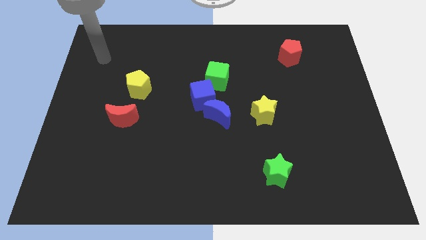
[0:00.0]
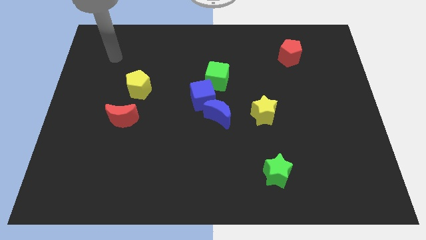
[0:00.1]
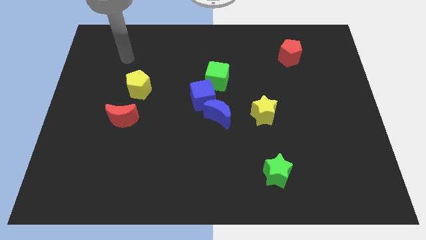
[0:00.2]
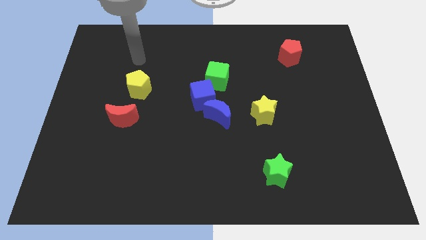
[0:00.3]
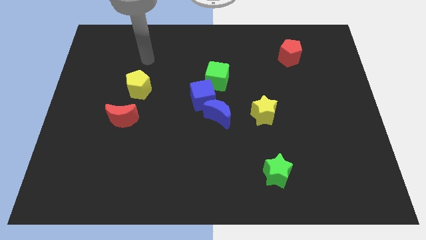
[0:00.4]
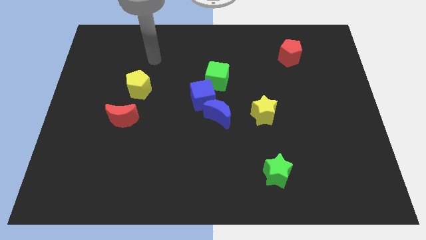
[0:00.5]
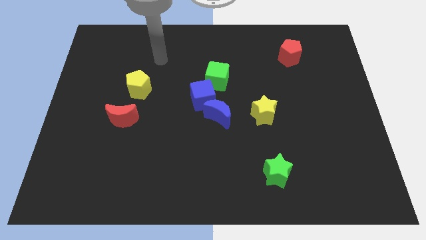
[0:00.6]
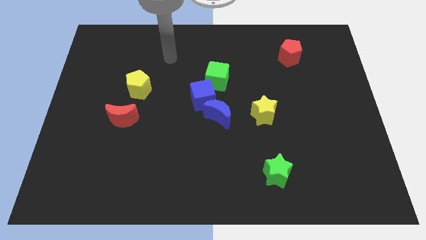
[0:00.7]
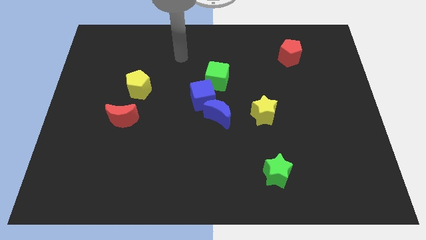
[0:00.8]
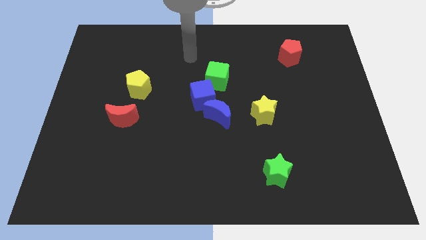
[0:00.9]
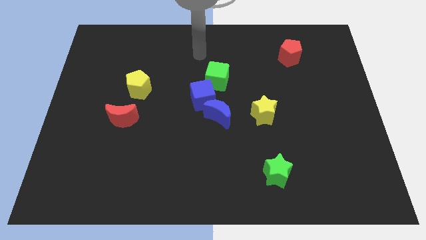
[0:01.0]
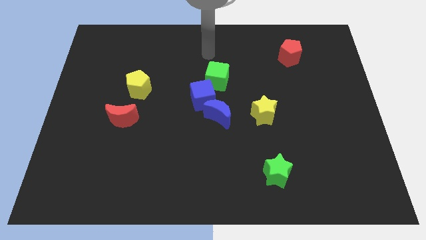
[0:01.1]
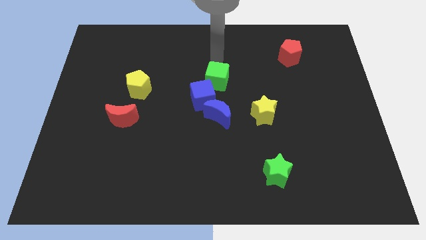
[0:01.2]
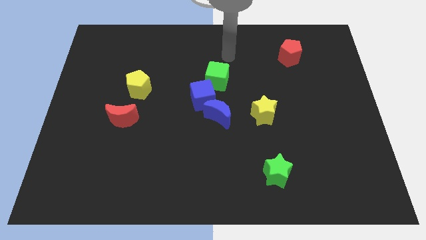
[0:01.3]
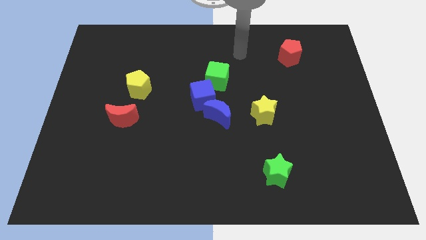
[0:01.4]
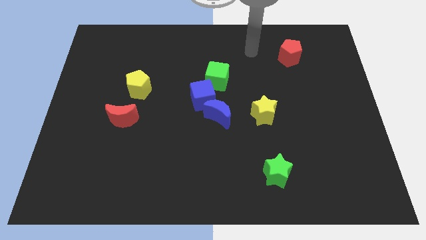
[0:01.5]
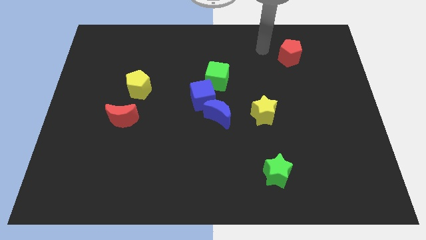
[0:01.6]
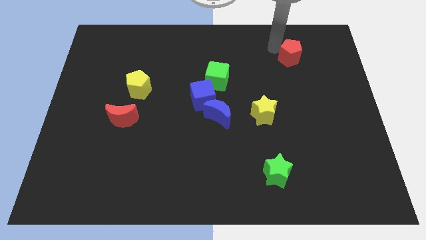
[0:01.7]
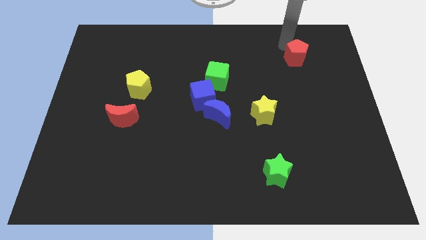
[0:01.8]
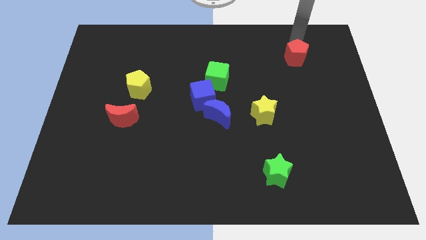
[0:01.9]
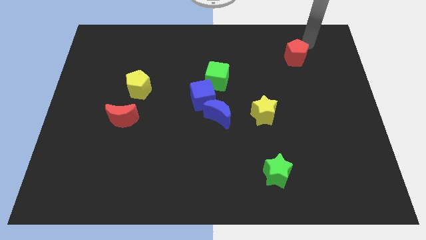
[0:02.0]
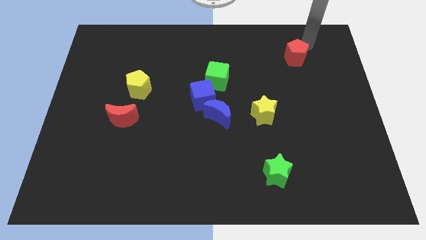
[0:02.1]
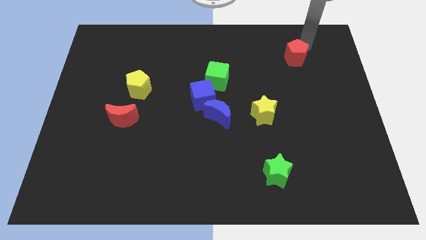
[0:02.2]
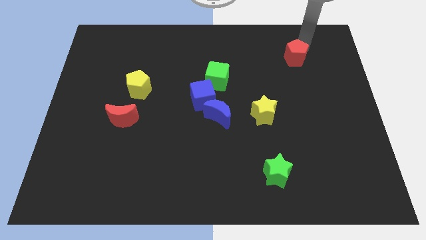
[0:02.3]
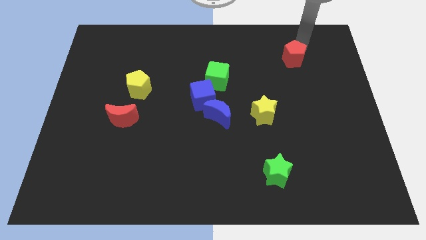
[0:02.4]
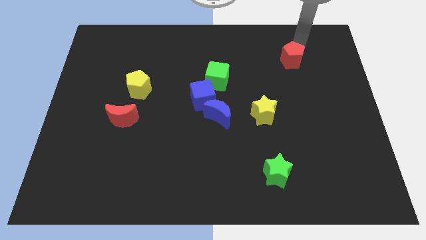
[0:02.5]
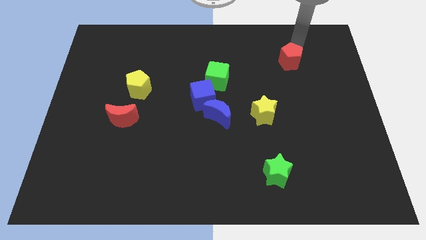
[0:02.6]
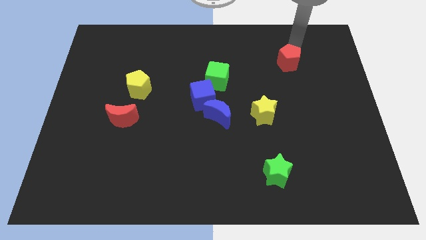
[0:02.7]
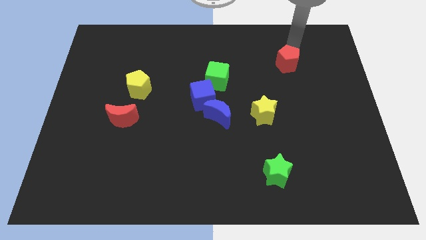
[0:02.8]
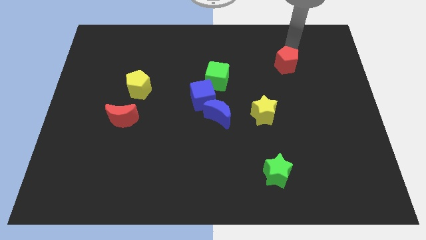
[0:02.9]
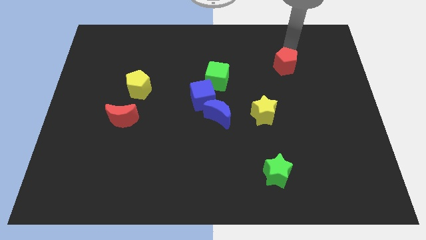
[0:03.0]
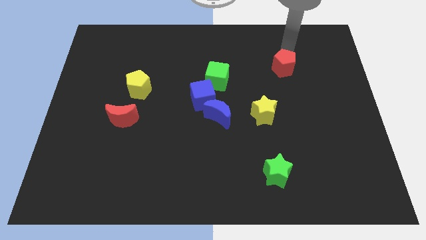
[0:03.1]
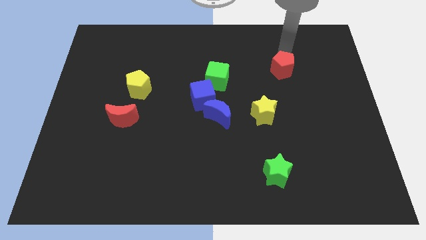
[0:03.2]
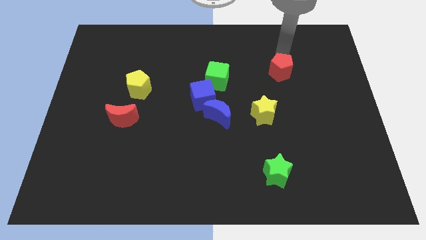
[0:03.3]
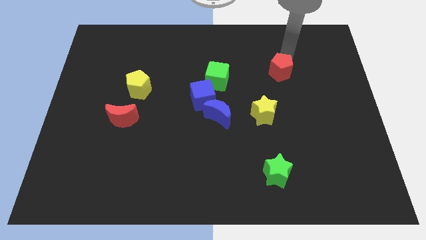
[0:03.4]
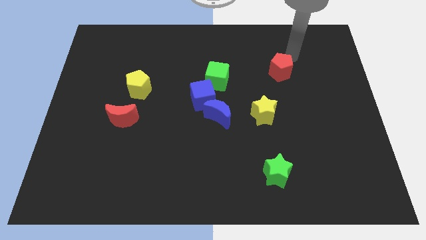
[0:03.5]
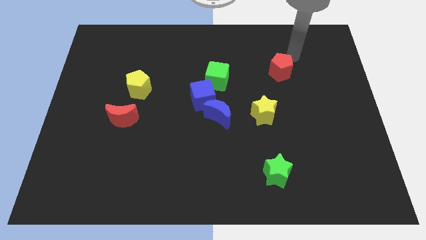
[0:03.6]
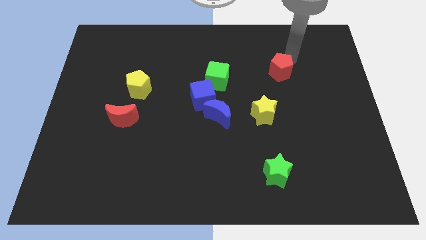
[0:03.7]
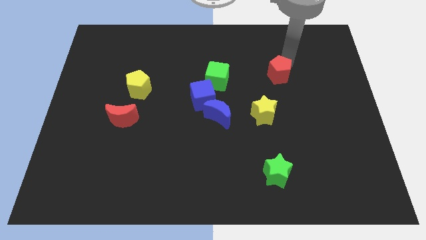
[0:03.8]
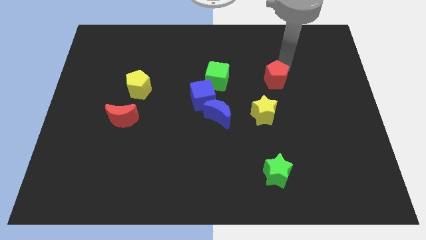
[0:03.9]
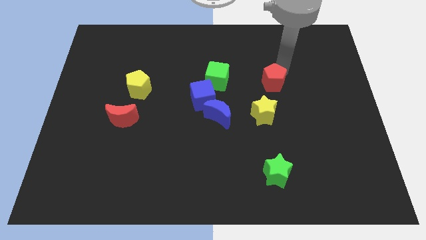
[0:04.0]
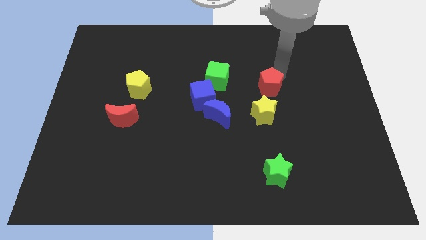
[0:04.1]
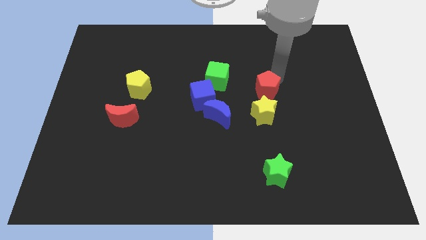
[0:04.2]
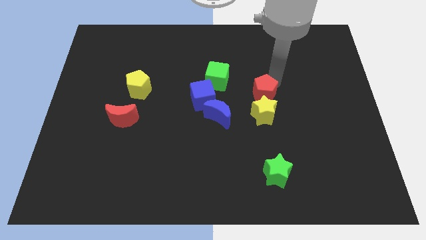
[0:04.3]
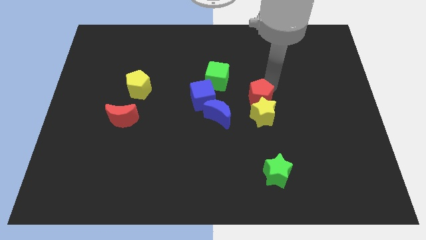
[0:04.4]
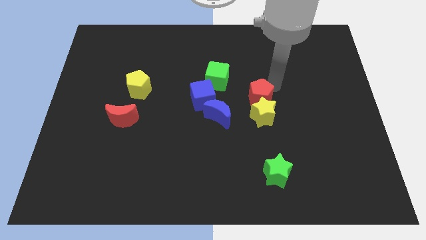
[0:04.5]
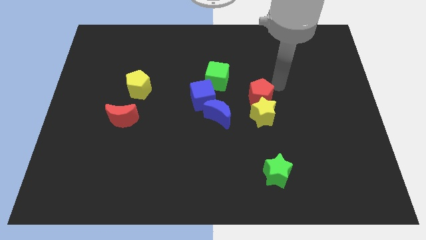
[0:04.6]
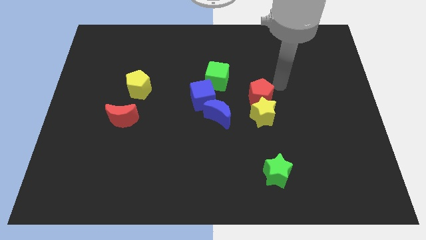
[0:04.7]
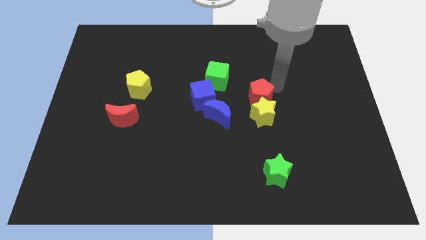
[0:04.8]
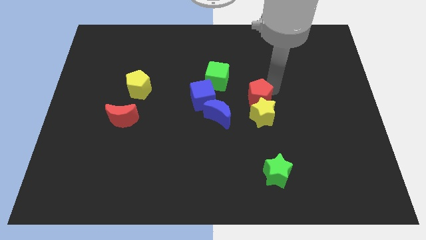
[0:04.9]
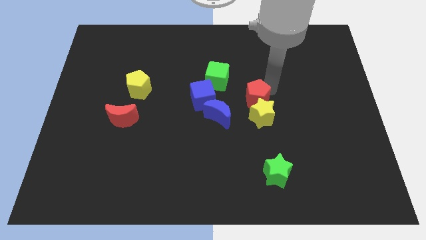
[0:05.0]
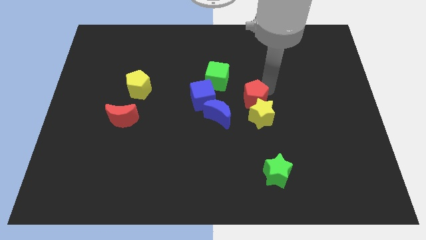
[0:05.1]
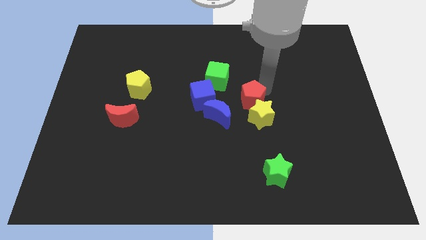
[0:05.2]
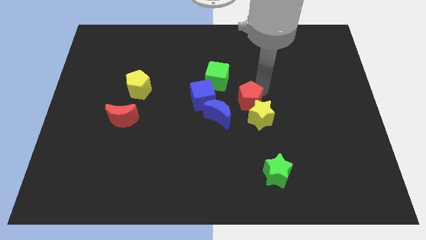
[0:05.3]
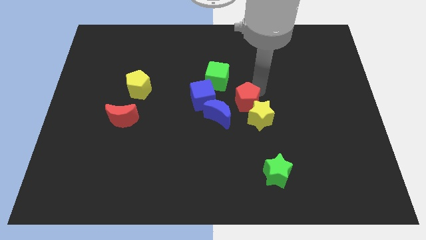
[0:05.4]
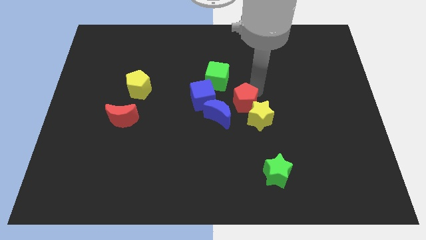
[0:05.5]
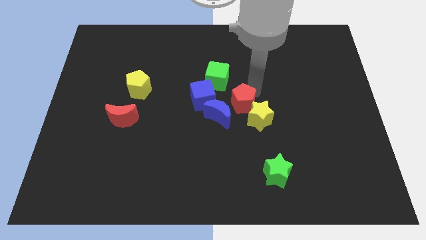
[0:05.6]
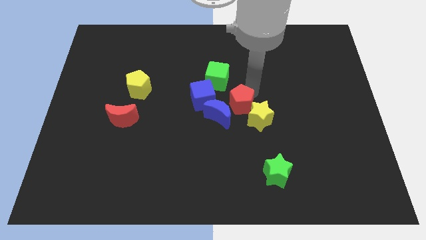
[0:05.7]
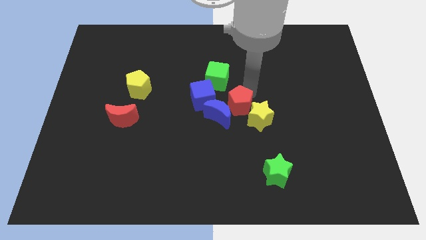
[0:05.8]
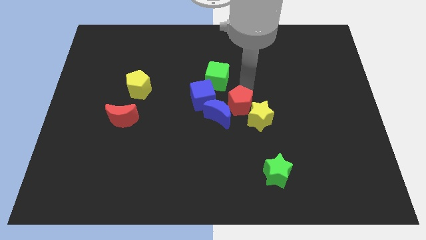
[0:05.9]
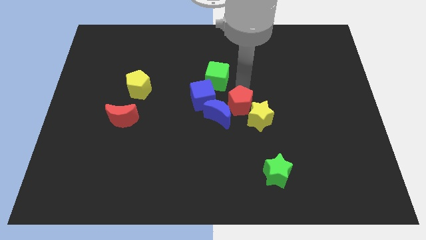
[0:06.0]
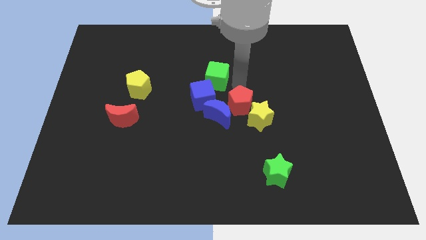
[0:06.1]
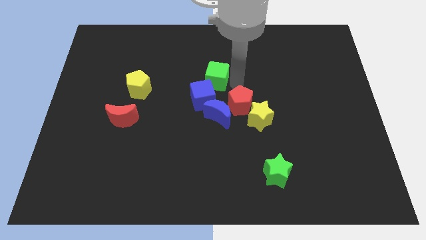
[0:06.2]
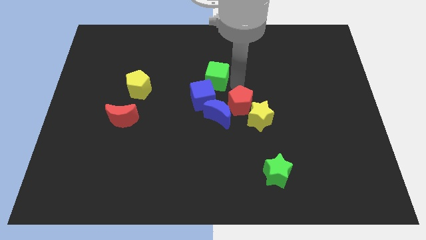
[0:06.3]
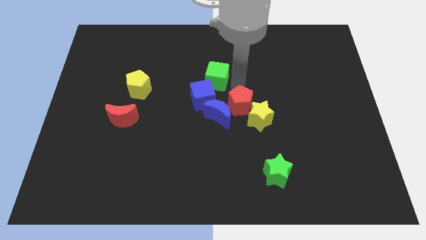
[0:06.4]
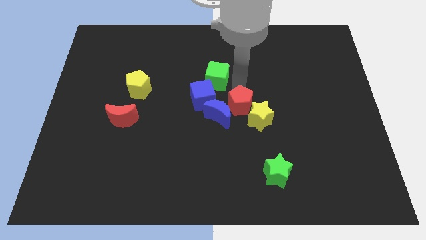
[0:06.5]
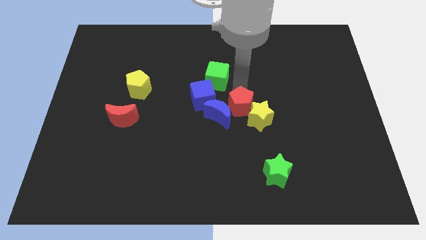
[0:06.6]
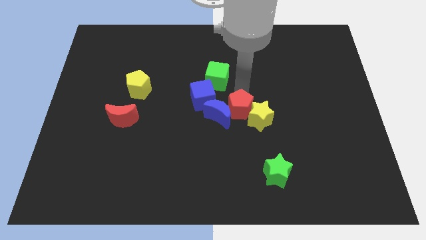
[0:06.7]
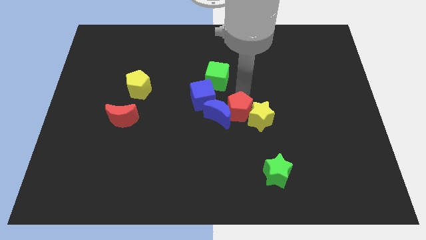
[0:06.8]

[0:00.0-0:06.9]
move the red pentagon to the bottom right of the blue moon
